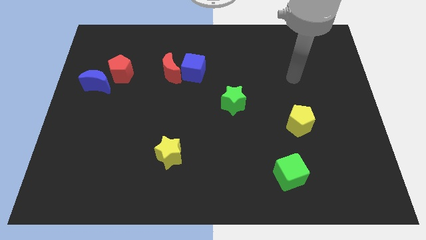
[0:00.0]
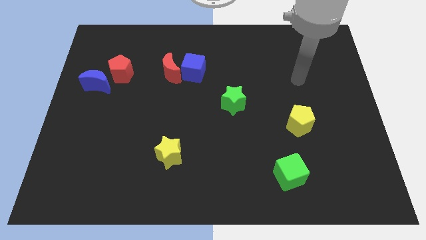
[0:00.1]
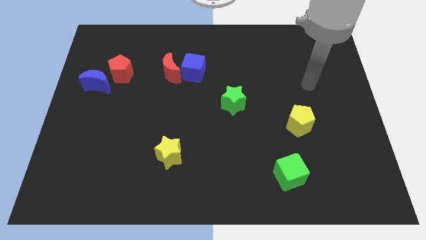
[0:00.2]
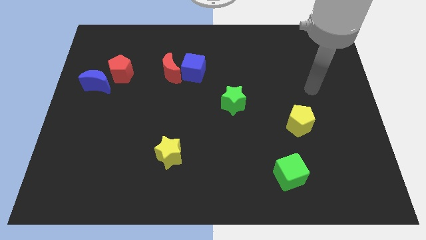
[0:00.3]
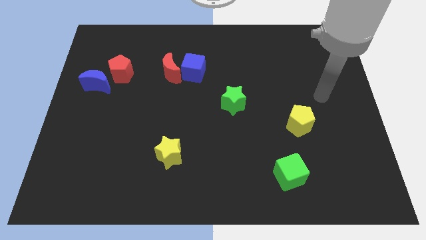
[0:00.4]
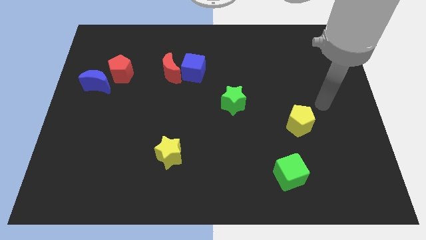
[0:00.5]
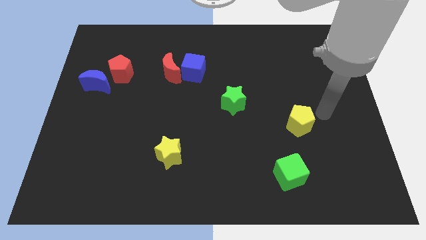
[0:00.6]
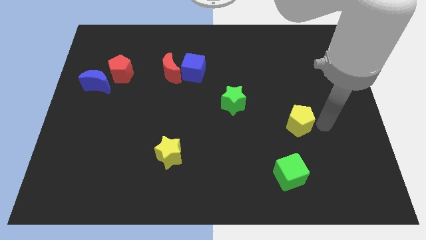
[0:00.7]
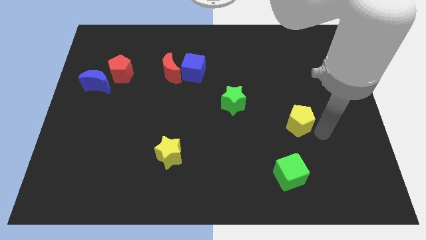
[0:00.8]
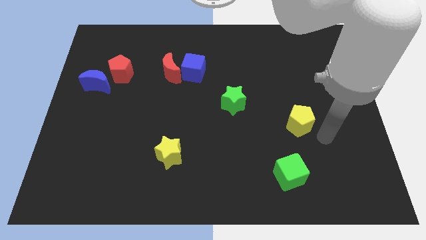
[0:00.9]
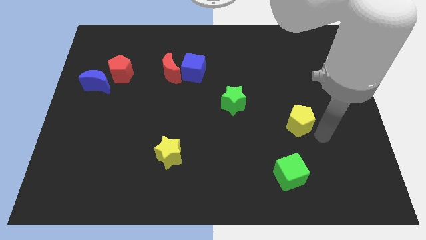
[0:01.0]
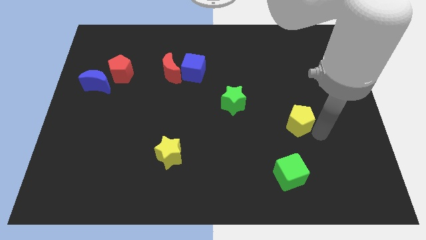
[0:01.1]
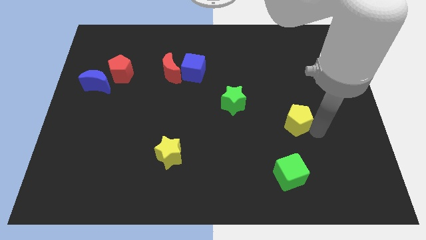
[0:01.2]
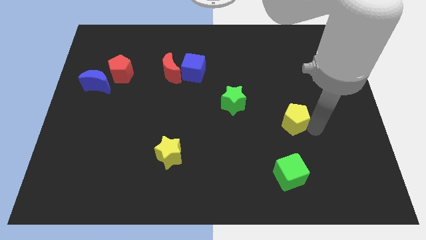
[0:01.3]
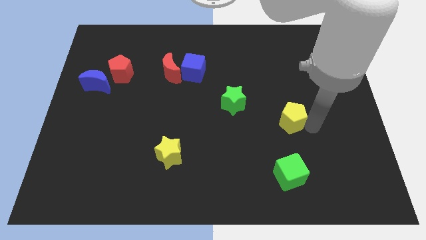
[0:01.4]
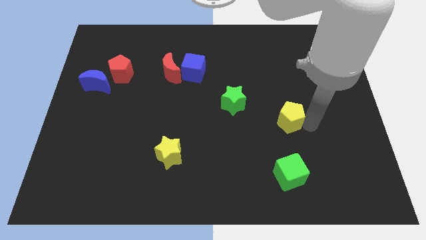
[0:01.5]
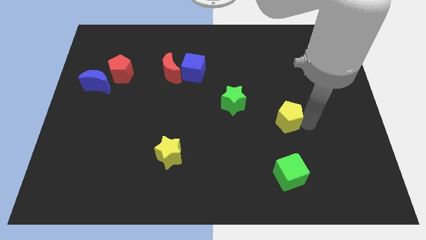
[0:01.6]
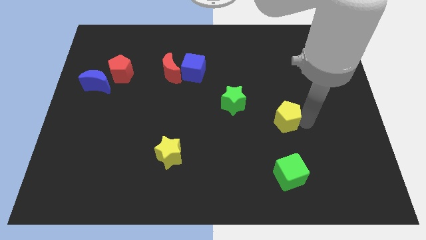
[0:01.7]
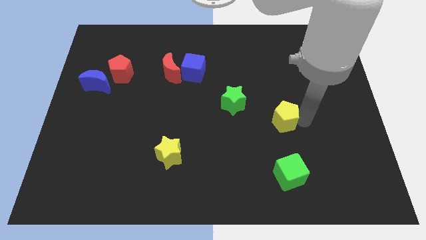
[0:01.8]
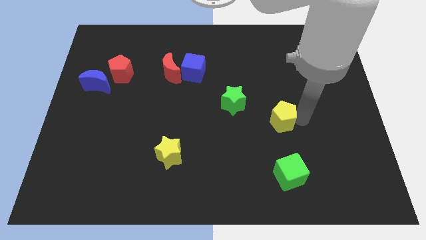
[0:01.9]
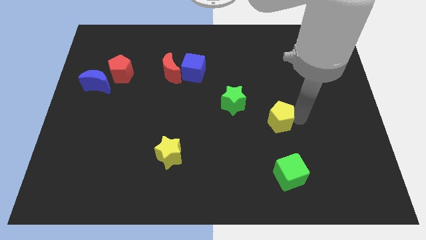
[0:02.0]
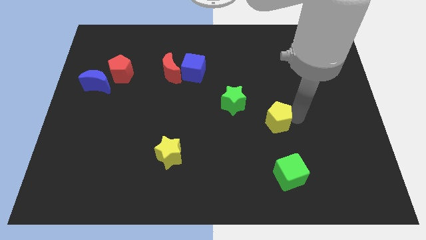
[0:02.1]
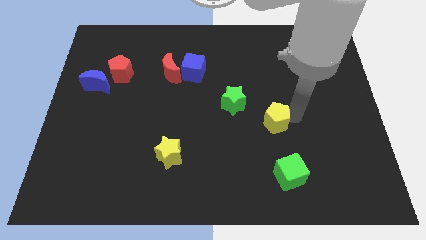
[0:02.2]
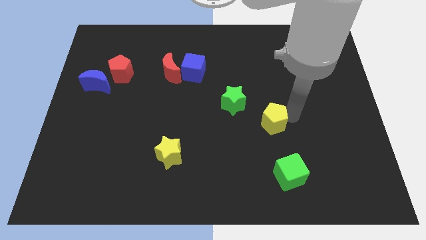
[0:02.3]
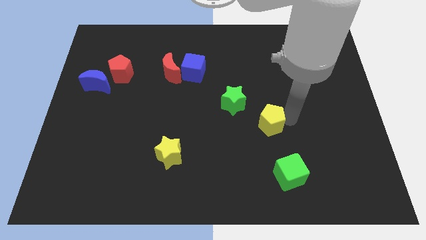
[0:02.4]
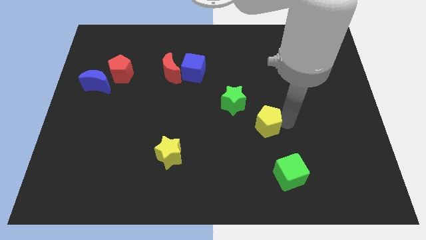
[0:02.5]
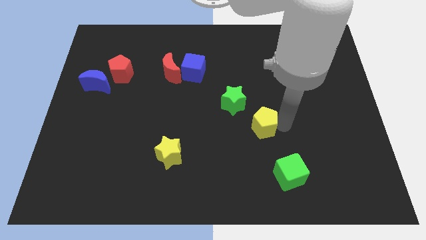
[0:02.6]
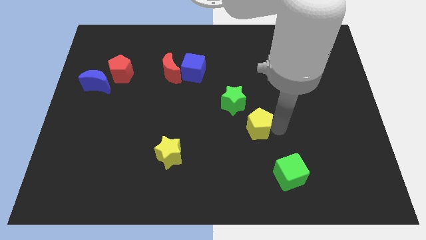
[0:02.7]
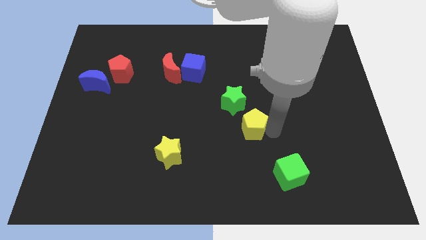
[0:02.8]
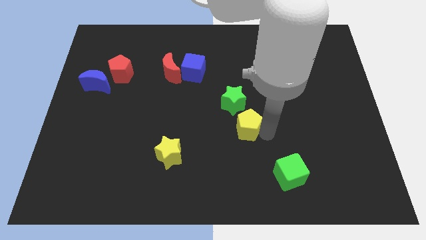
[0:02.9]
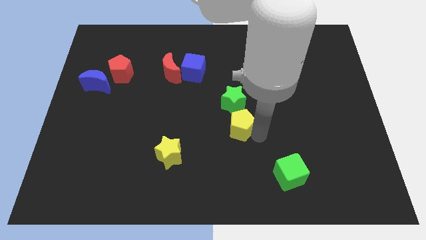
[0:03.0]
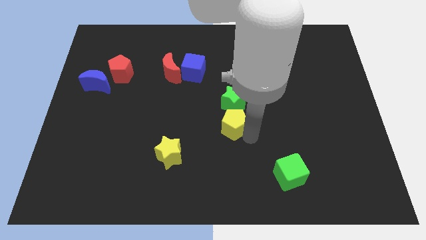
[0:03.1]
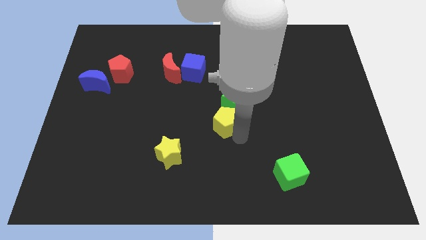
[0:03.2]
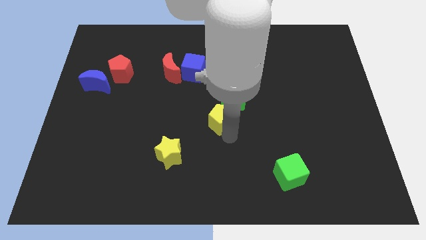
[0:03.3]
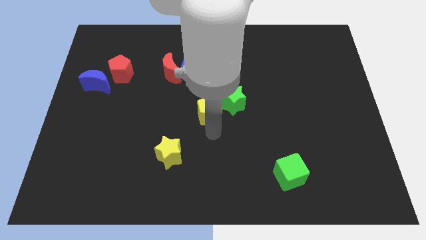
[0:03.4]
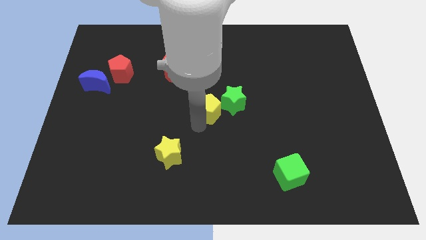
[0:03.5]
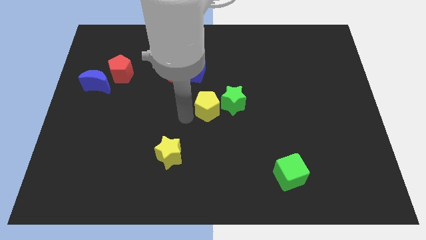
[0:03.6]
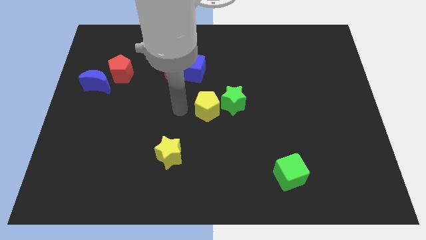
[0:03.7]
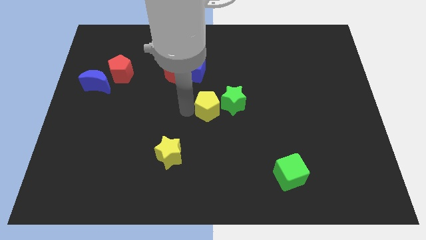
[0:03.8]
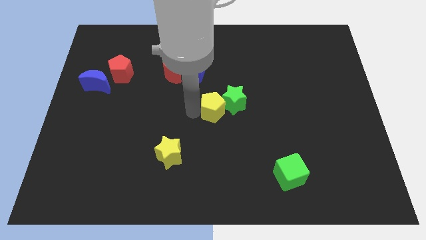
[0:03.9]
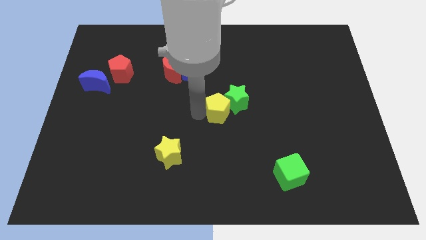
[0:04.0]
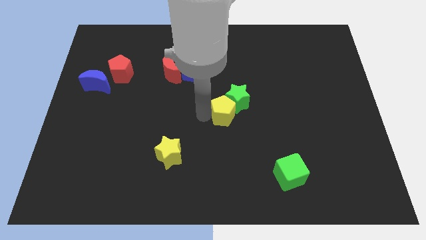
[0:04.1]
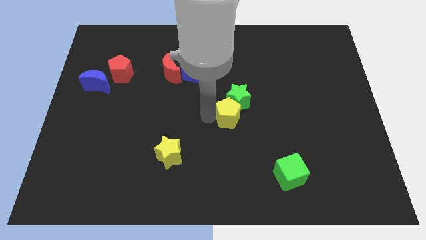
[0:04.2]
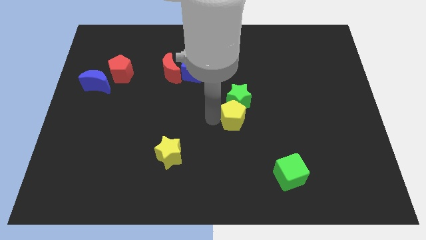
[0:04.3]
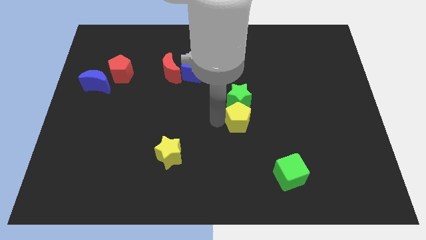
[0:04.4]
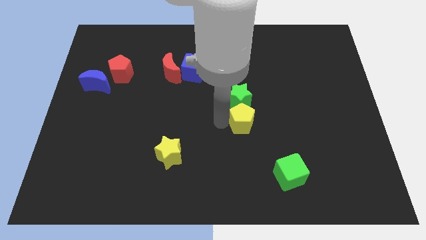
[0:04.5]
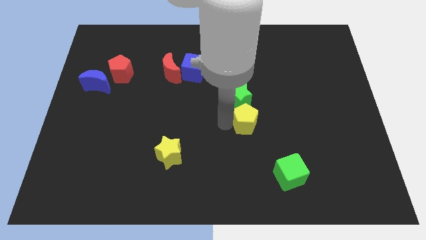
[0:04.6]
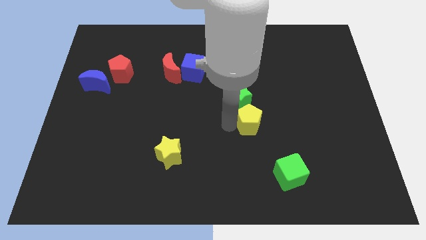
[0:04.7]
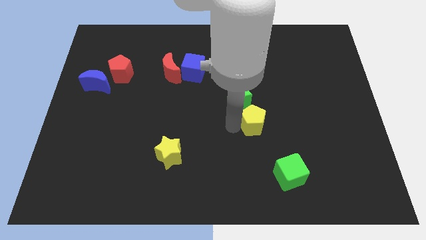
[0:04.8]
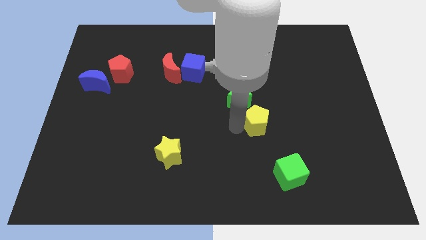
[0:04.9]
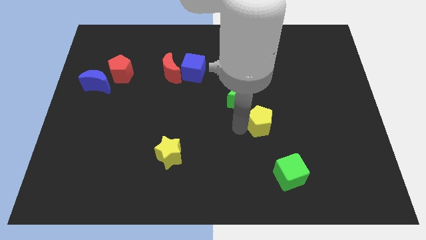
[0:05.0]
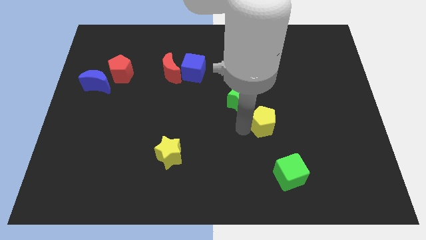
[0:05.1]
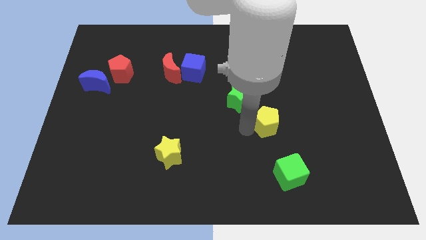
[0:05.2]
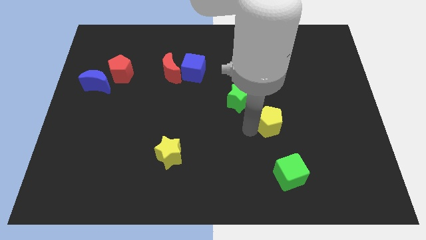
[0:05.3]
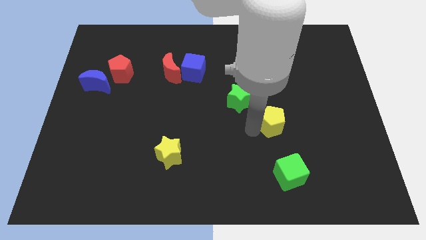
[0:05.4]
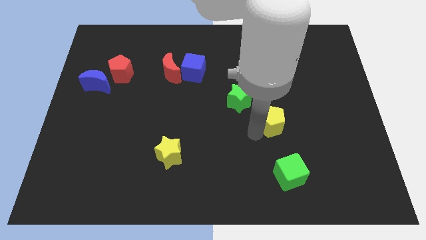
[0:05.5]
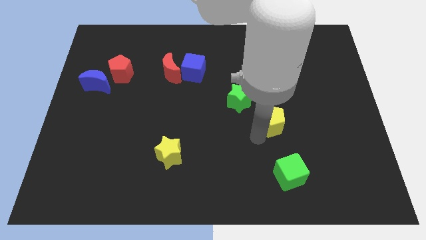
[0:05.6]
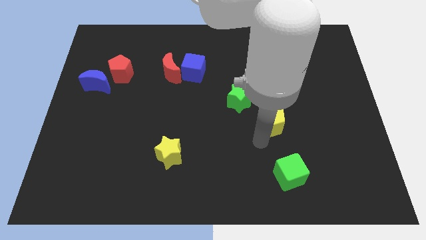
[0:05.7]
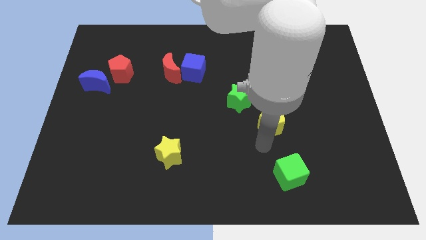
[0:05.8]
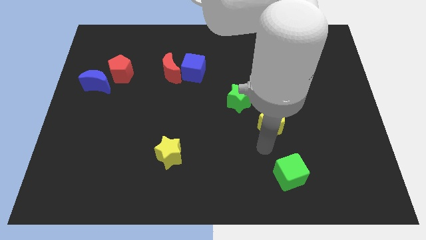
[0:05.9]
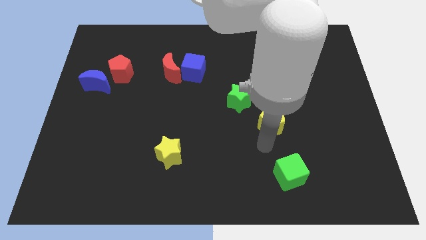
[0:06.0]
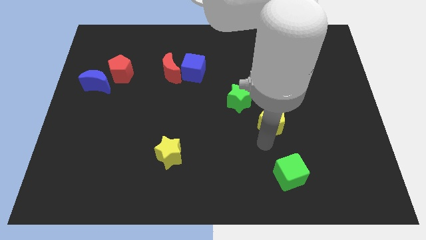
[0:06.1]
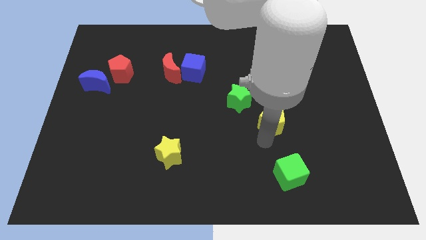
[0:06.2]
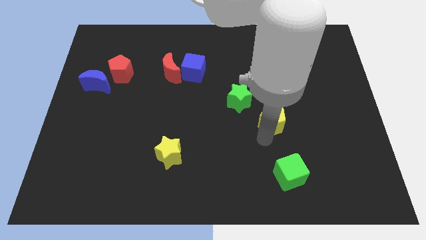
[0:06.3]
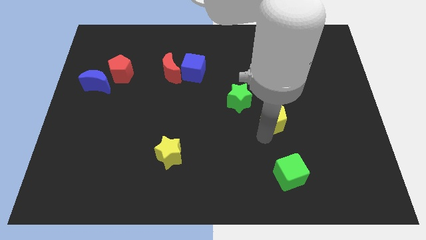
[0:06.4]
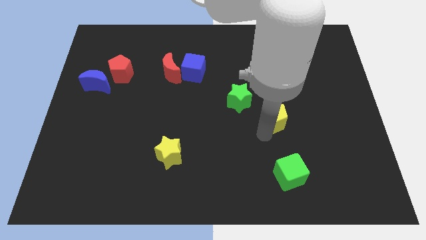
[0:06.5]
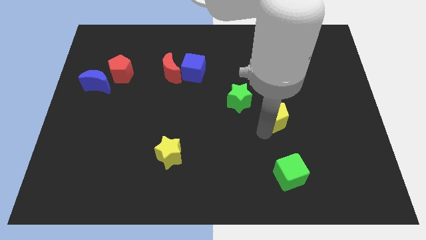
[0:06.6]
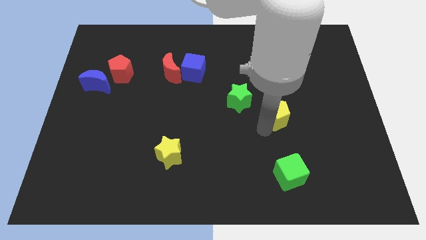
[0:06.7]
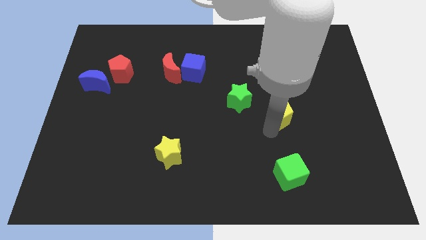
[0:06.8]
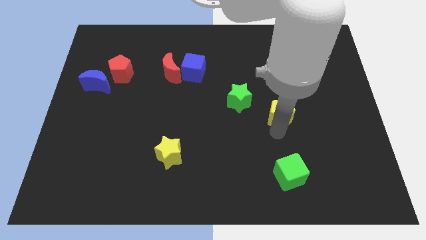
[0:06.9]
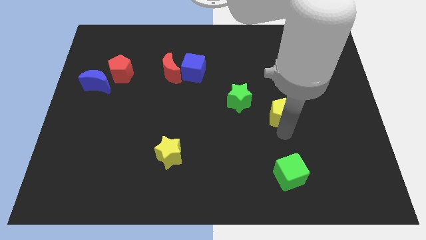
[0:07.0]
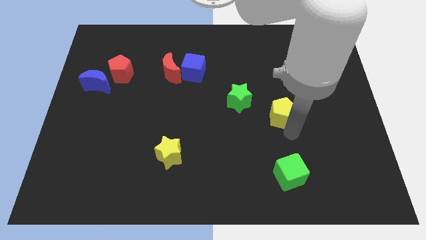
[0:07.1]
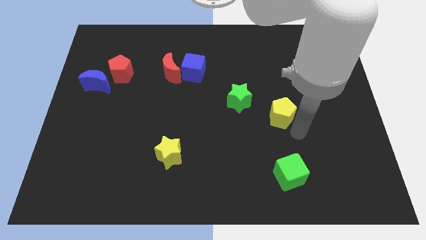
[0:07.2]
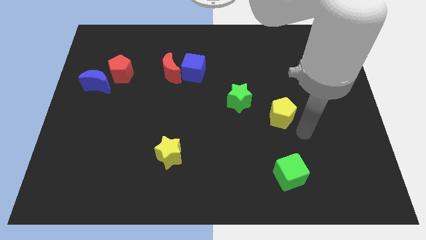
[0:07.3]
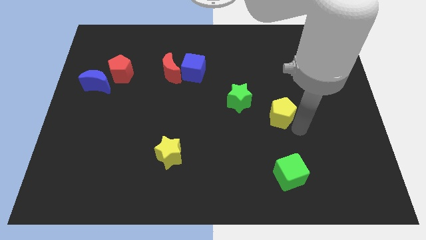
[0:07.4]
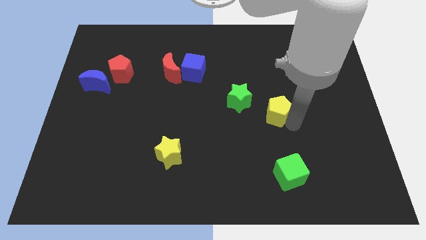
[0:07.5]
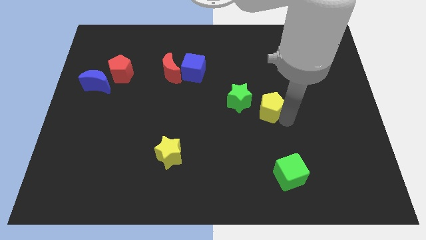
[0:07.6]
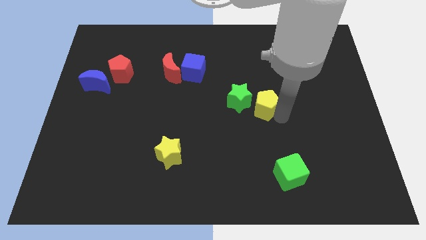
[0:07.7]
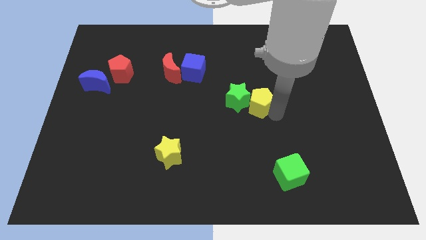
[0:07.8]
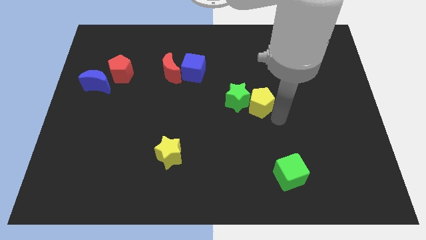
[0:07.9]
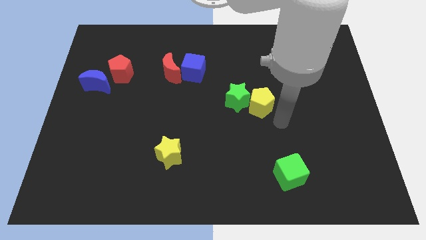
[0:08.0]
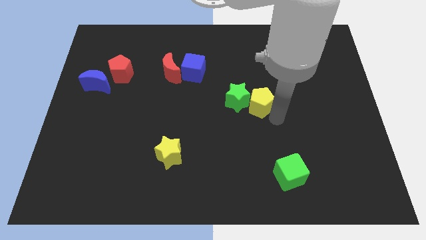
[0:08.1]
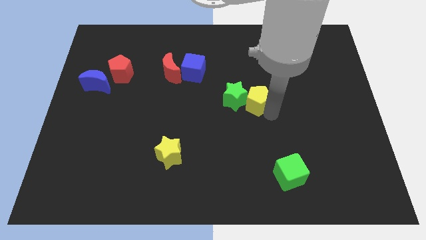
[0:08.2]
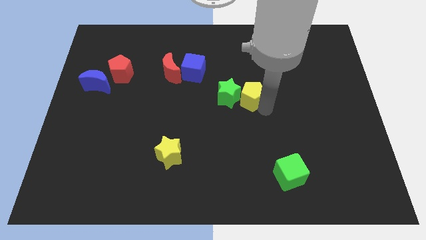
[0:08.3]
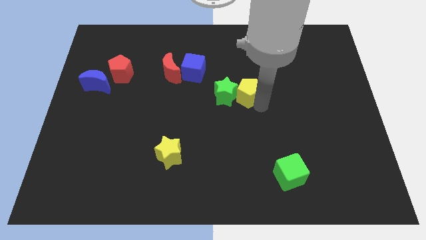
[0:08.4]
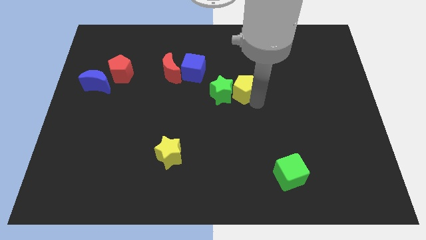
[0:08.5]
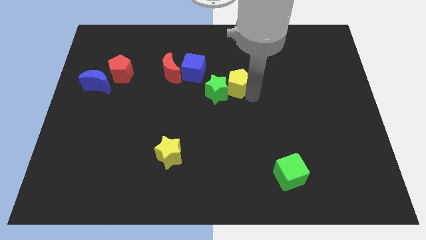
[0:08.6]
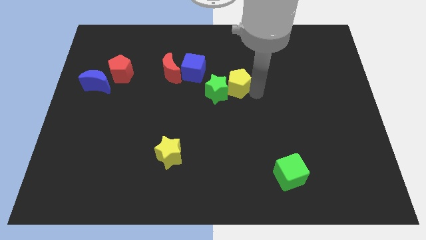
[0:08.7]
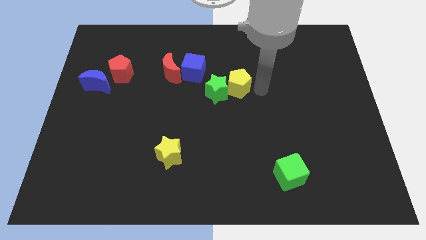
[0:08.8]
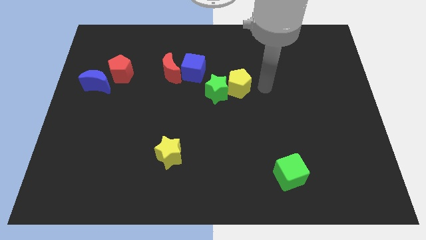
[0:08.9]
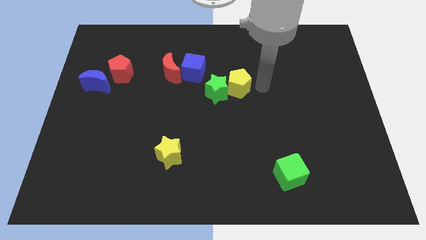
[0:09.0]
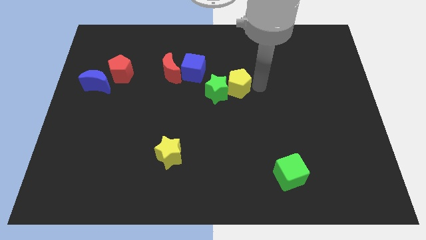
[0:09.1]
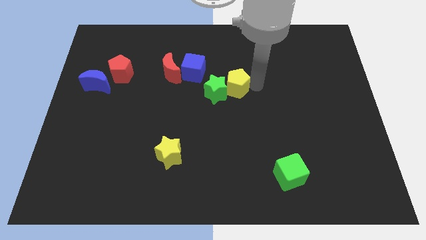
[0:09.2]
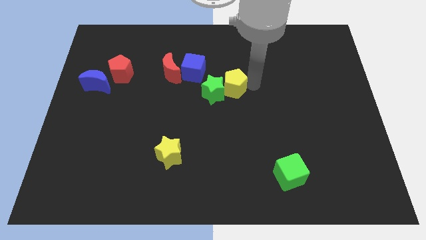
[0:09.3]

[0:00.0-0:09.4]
move the yellow pentagon to the bottom right of the blue cube
